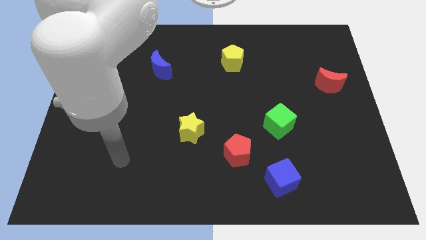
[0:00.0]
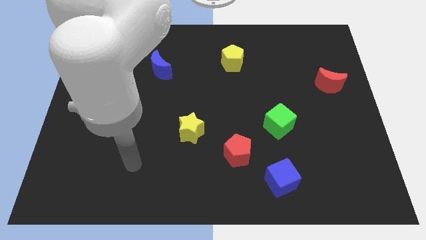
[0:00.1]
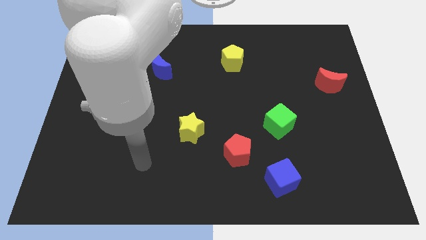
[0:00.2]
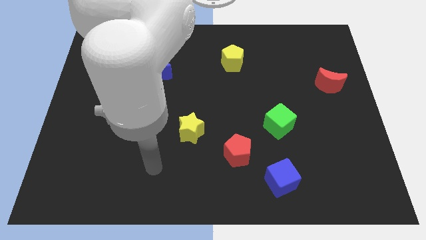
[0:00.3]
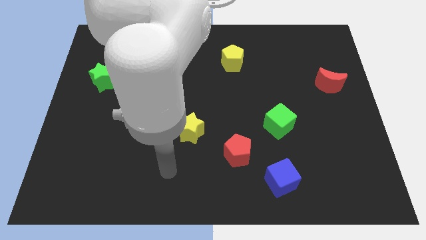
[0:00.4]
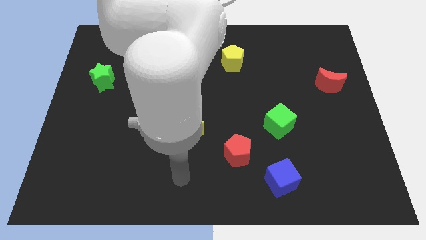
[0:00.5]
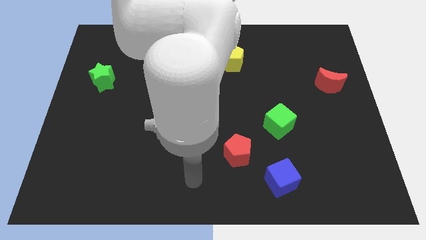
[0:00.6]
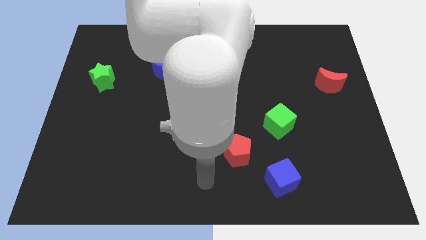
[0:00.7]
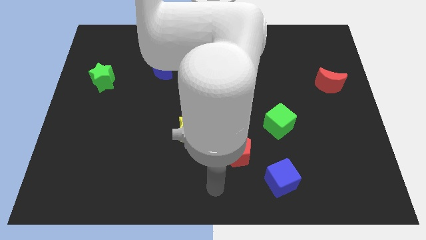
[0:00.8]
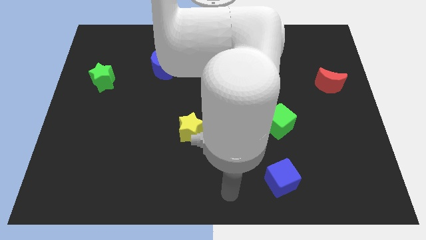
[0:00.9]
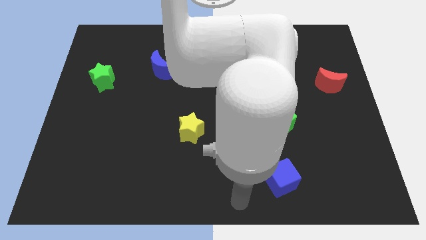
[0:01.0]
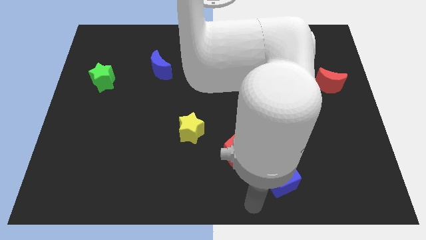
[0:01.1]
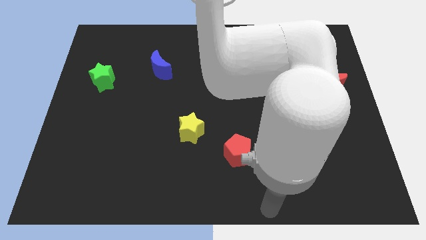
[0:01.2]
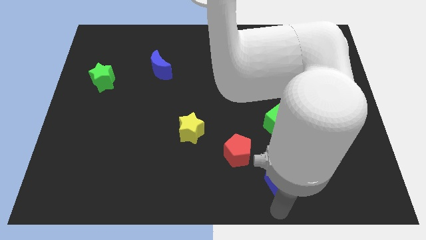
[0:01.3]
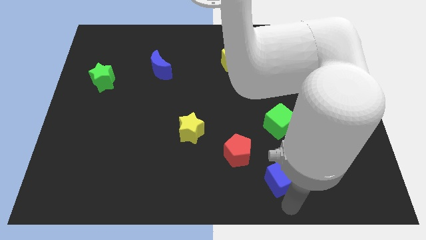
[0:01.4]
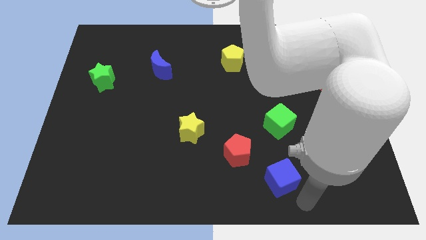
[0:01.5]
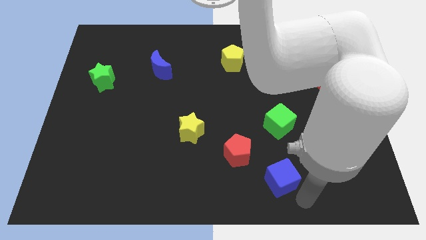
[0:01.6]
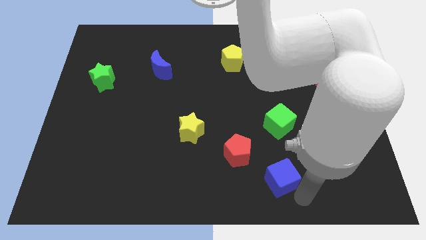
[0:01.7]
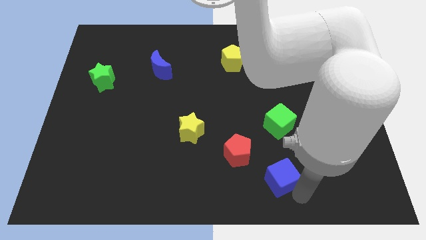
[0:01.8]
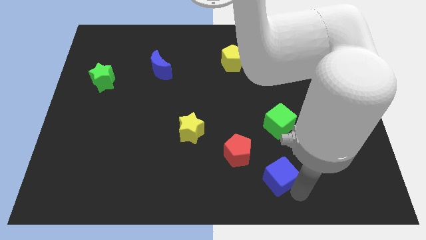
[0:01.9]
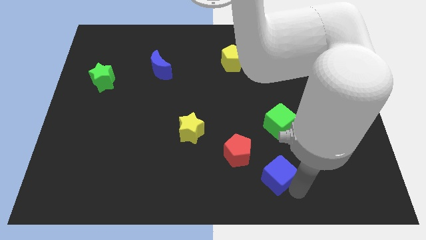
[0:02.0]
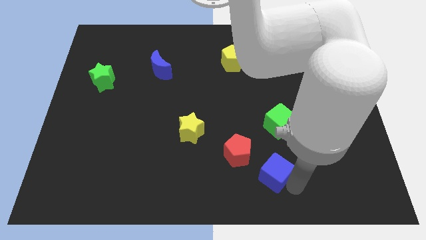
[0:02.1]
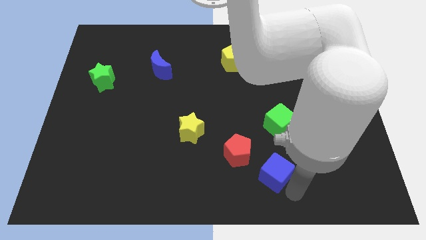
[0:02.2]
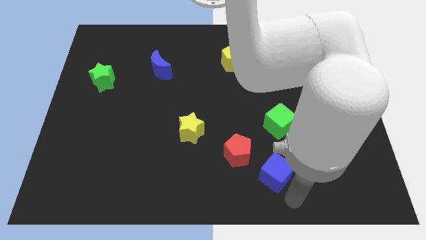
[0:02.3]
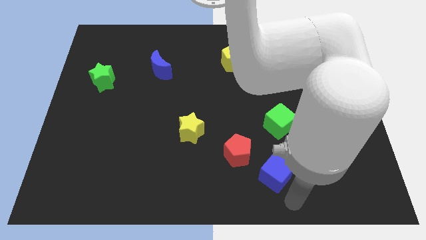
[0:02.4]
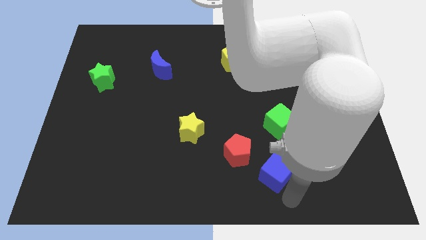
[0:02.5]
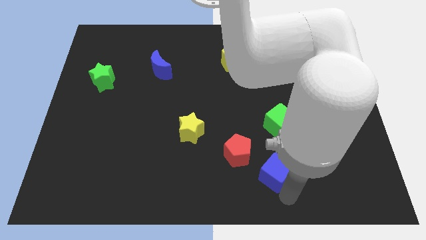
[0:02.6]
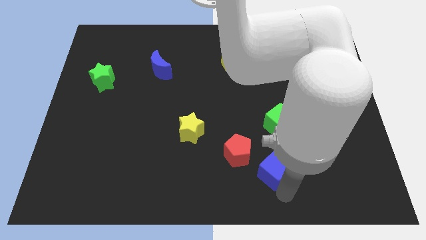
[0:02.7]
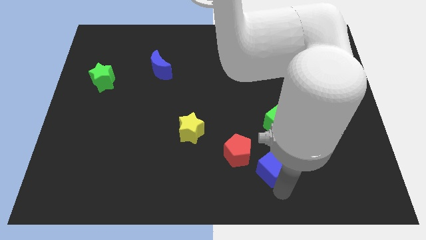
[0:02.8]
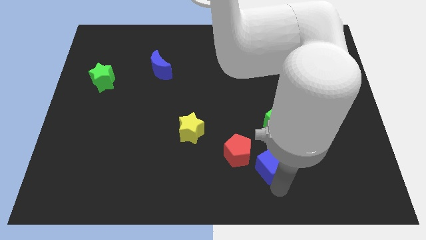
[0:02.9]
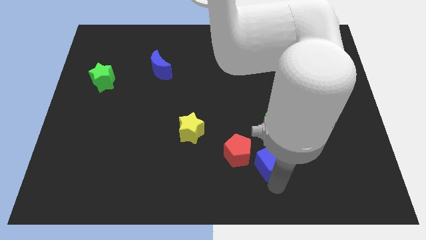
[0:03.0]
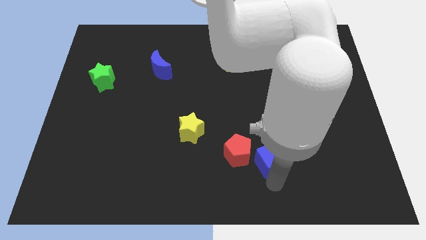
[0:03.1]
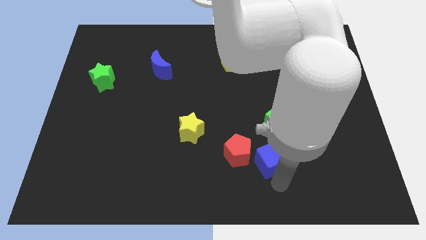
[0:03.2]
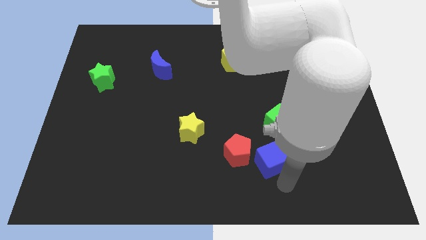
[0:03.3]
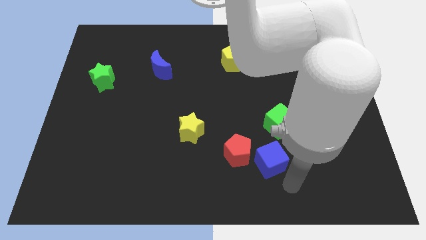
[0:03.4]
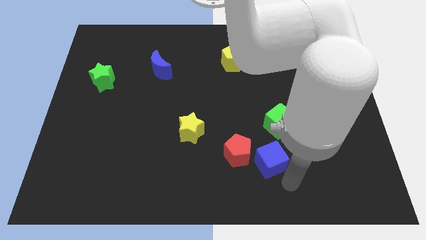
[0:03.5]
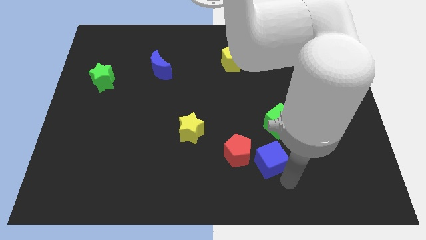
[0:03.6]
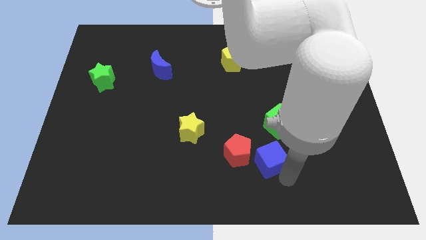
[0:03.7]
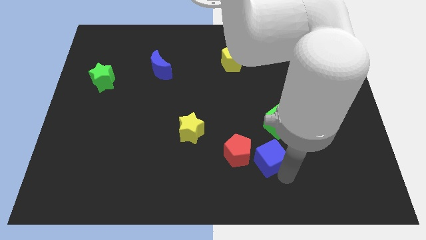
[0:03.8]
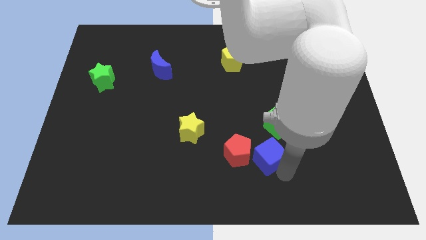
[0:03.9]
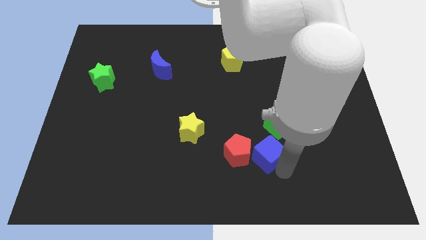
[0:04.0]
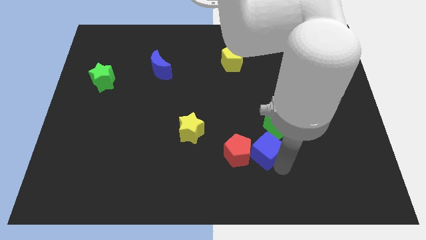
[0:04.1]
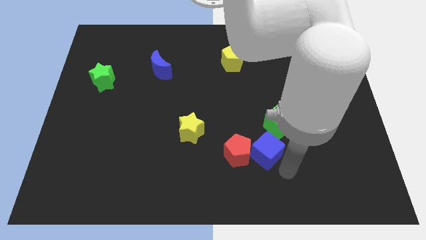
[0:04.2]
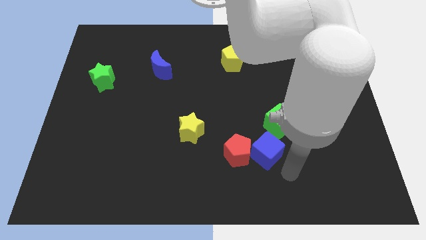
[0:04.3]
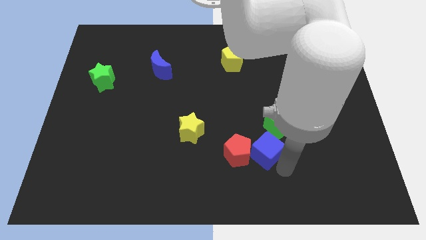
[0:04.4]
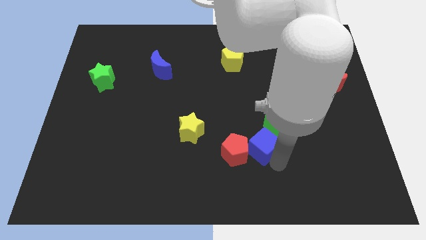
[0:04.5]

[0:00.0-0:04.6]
slightly push the blue cube upwards and left diagonally

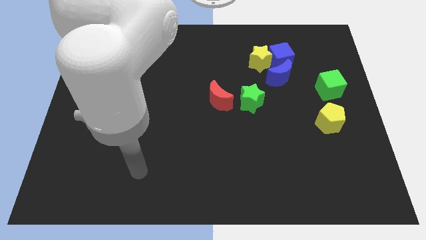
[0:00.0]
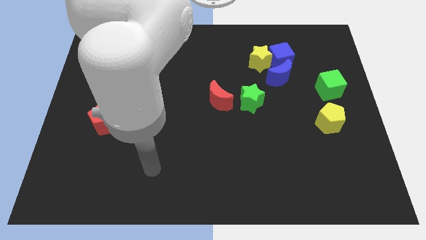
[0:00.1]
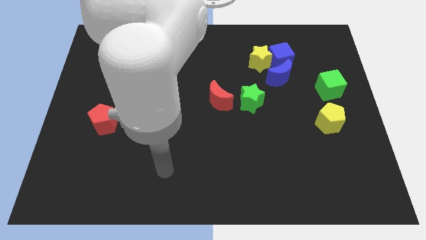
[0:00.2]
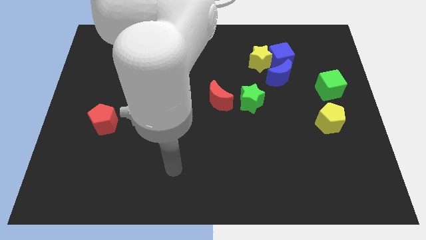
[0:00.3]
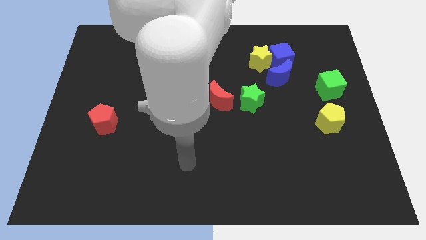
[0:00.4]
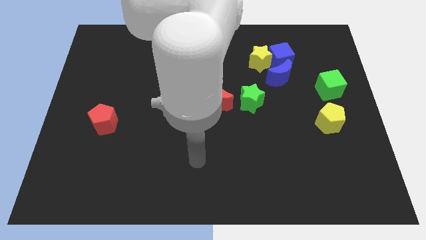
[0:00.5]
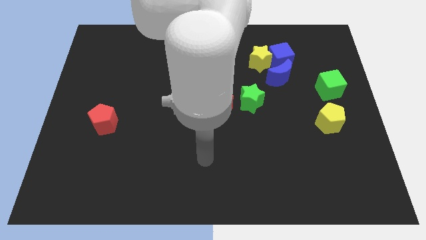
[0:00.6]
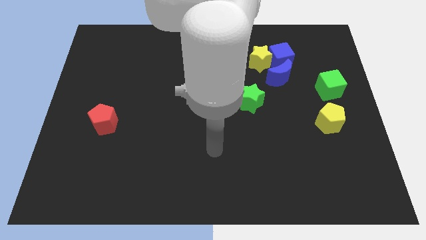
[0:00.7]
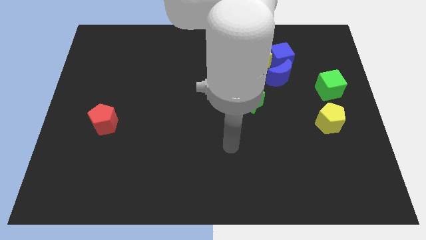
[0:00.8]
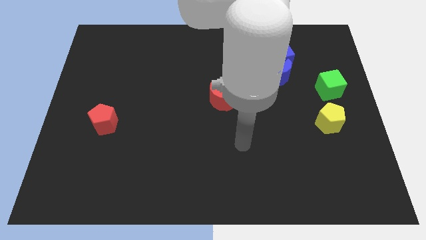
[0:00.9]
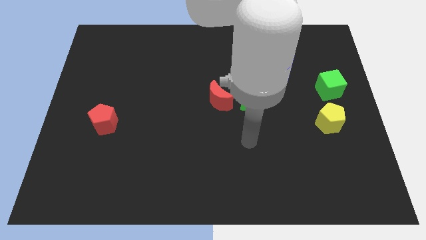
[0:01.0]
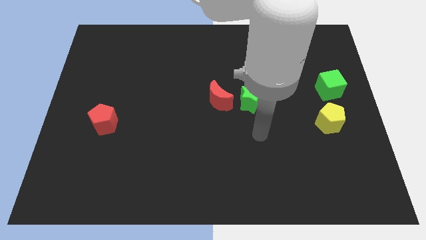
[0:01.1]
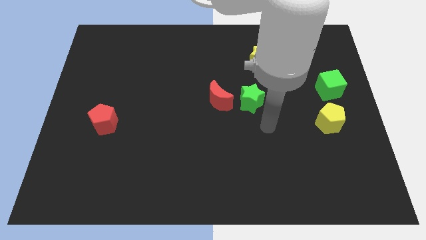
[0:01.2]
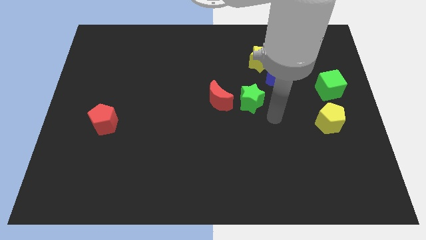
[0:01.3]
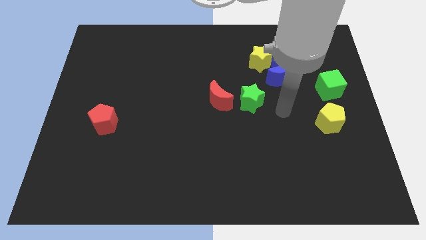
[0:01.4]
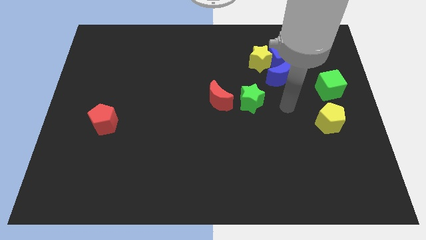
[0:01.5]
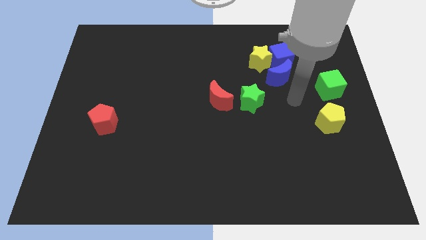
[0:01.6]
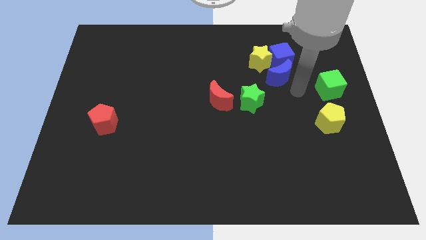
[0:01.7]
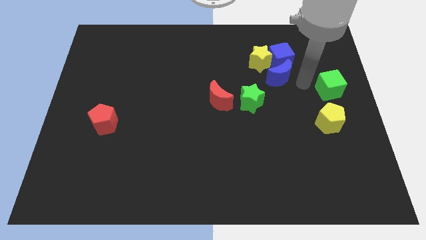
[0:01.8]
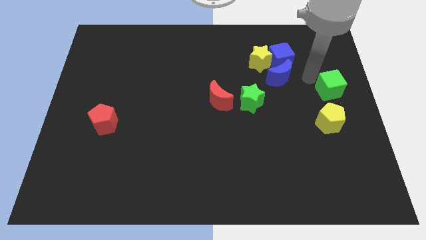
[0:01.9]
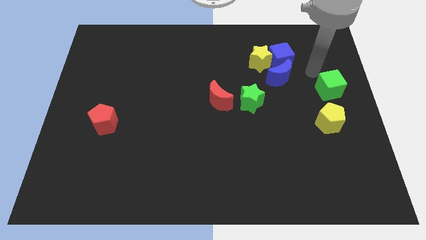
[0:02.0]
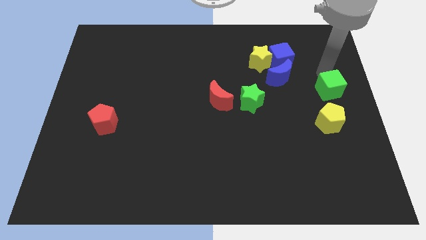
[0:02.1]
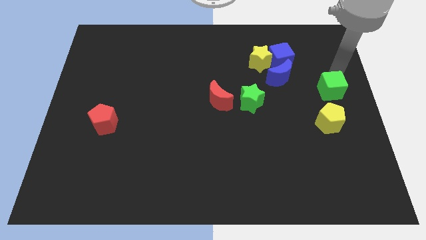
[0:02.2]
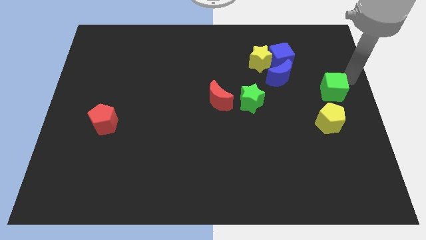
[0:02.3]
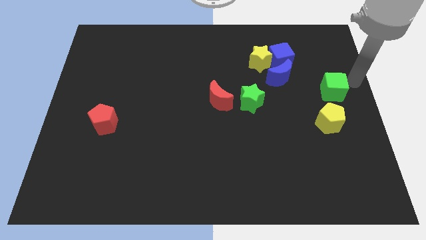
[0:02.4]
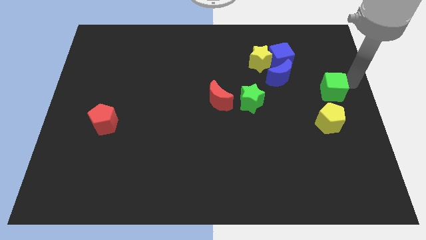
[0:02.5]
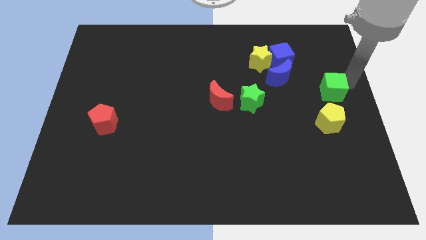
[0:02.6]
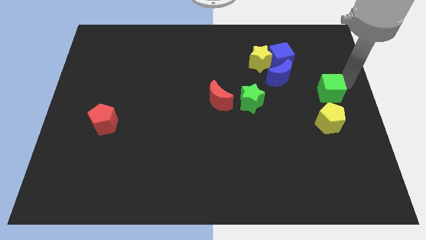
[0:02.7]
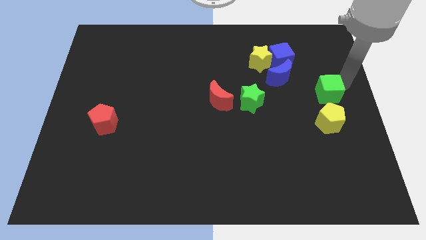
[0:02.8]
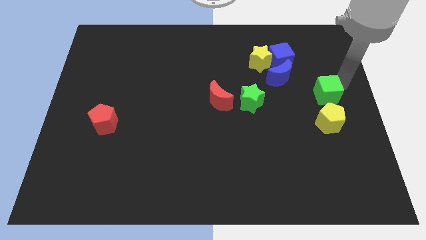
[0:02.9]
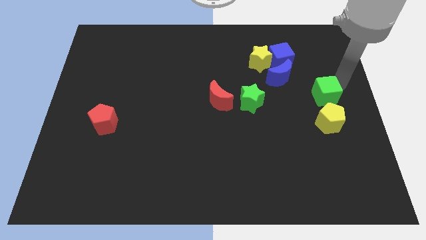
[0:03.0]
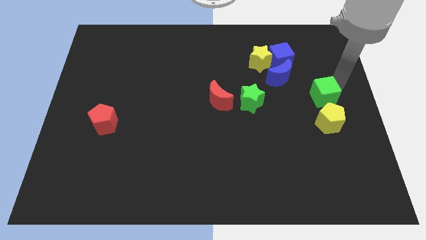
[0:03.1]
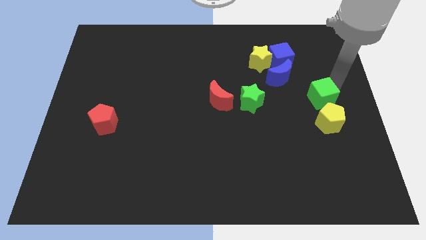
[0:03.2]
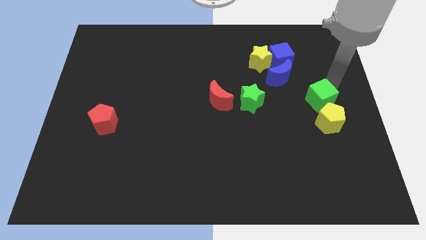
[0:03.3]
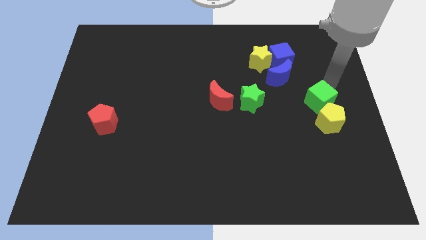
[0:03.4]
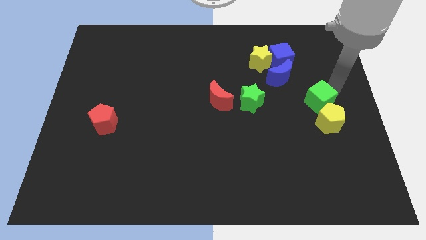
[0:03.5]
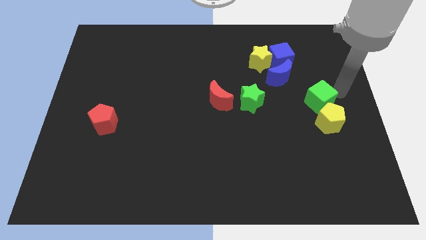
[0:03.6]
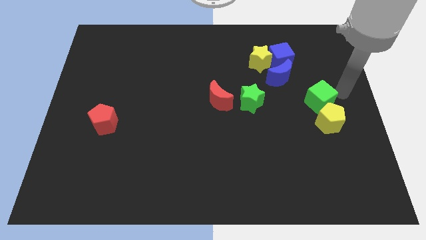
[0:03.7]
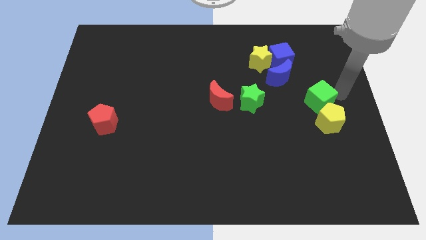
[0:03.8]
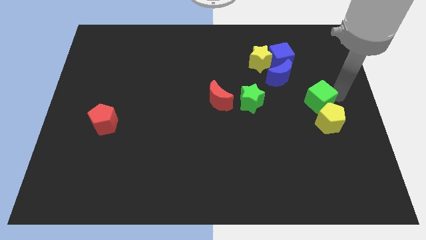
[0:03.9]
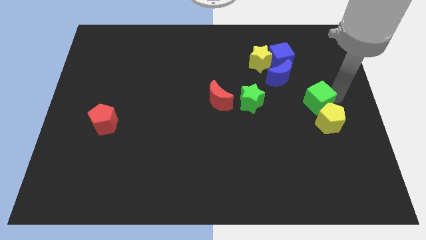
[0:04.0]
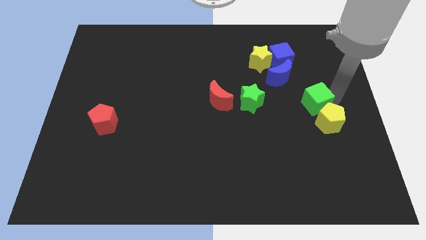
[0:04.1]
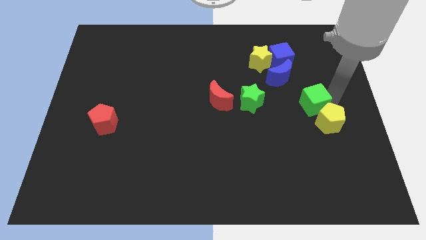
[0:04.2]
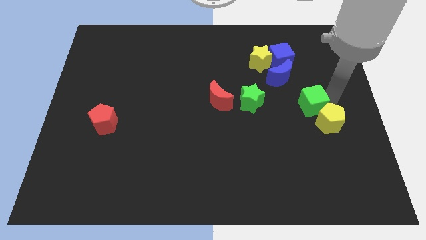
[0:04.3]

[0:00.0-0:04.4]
move the green cube downwards and left somewhat
